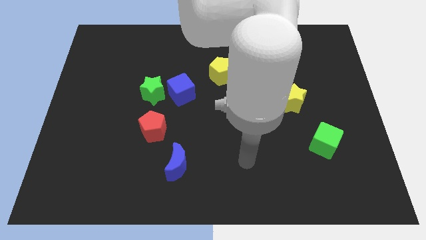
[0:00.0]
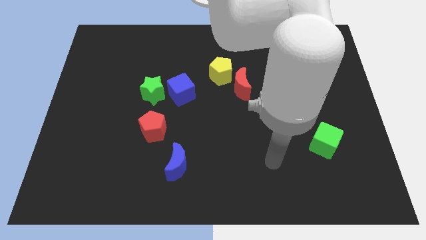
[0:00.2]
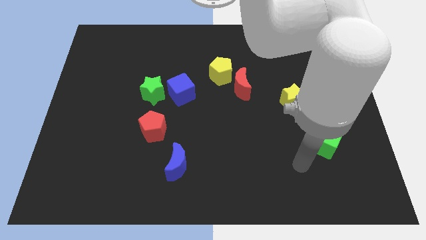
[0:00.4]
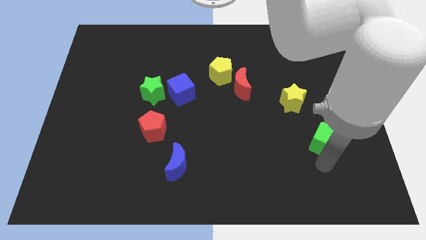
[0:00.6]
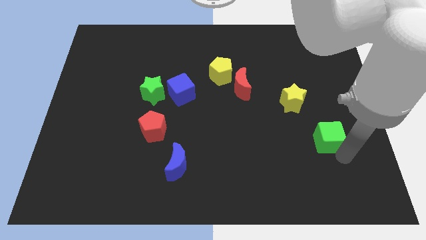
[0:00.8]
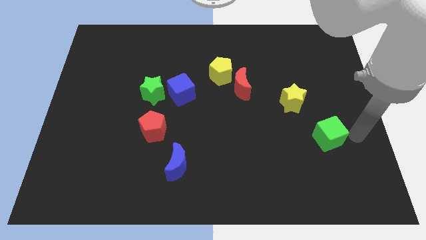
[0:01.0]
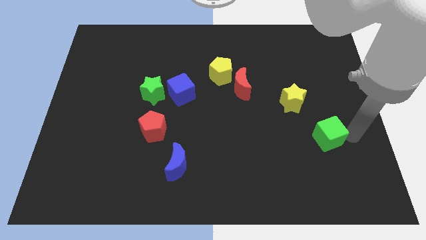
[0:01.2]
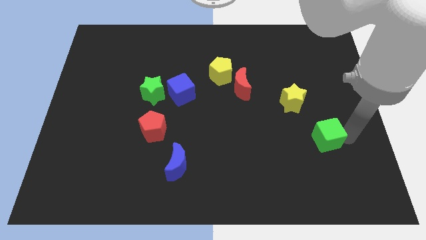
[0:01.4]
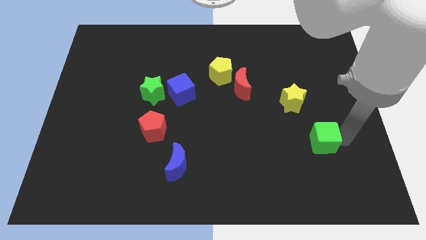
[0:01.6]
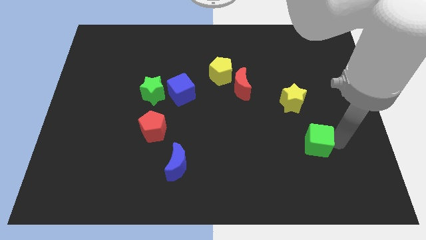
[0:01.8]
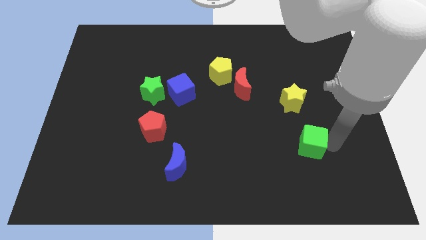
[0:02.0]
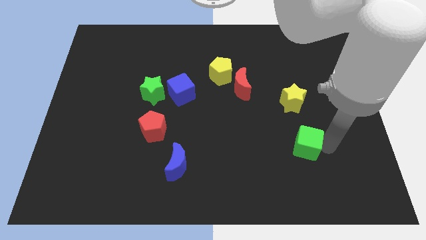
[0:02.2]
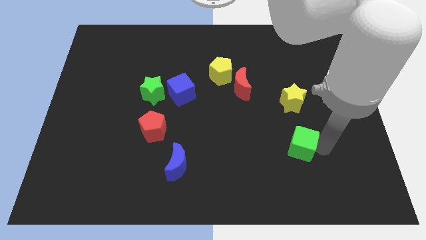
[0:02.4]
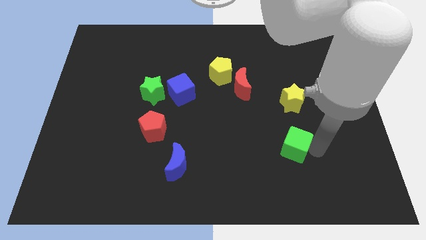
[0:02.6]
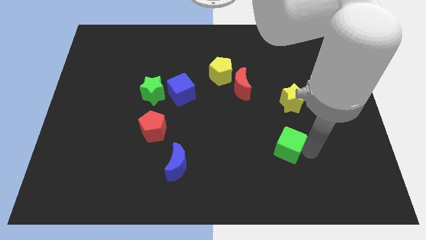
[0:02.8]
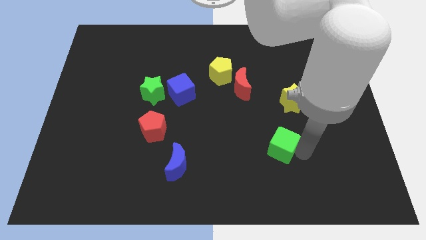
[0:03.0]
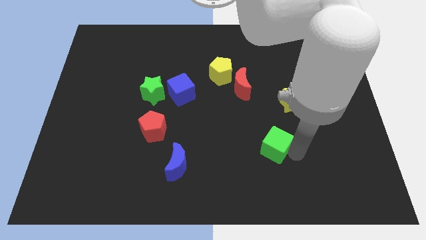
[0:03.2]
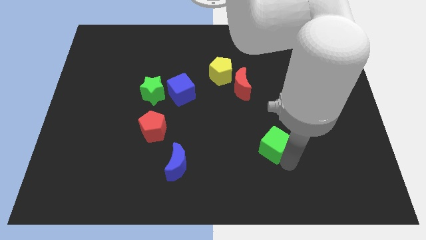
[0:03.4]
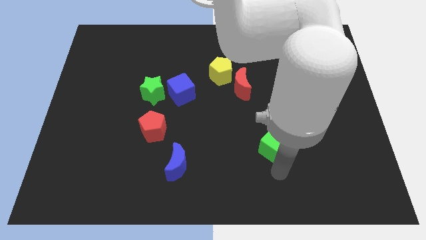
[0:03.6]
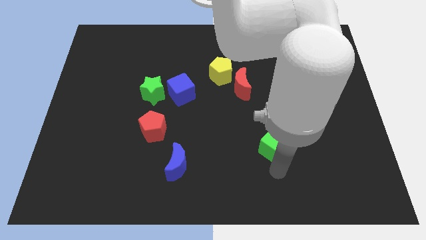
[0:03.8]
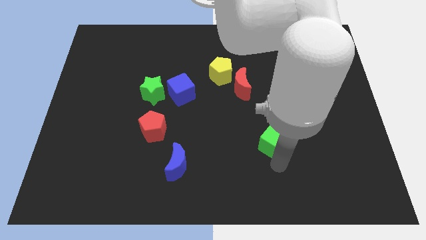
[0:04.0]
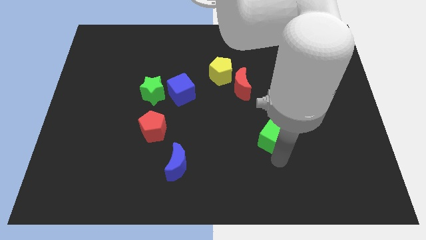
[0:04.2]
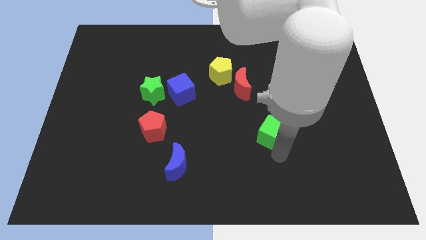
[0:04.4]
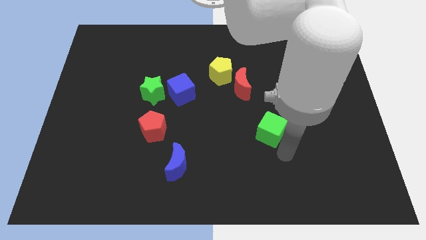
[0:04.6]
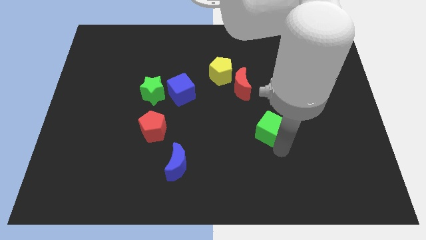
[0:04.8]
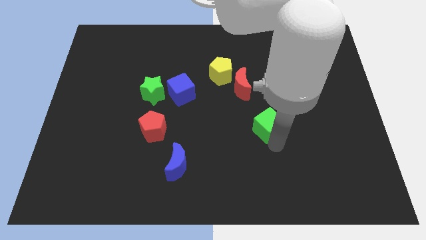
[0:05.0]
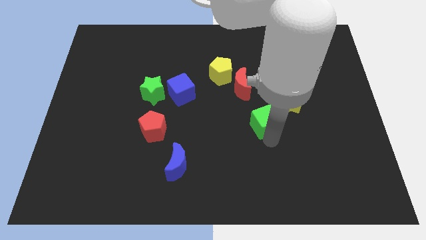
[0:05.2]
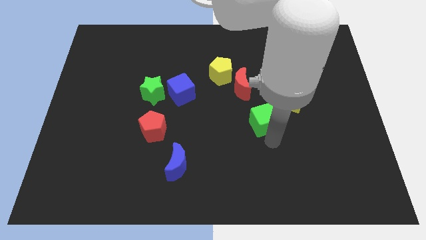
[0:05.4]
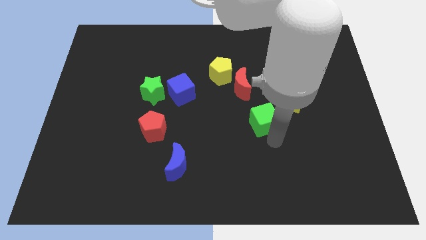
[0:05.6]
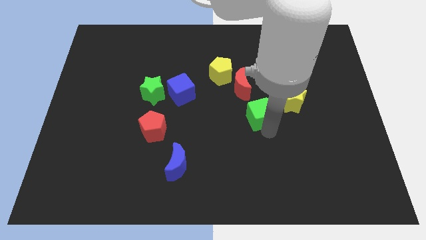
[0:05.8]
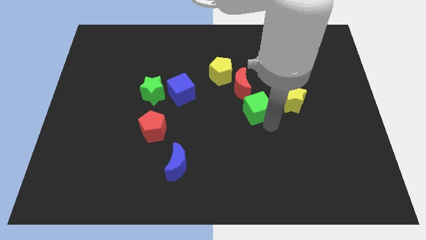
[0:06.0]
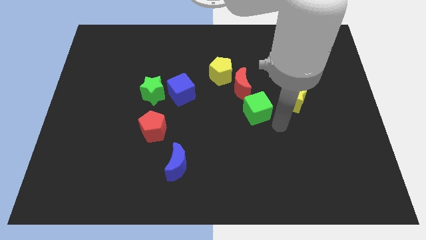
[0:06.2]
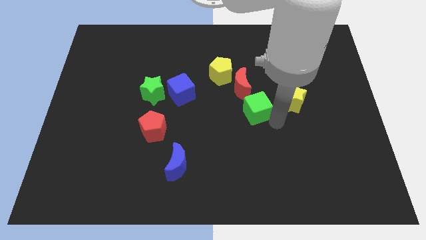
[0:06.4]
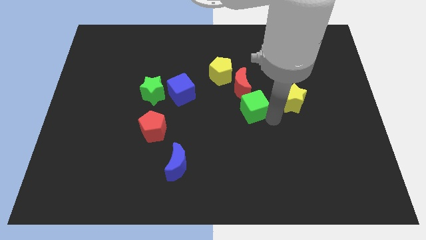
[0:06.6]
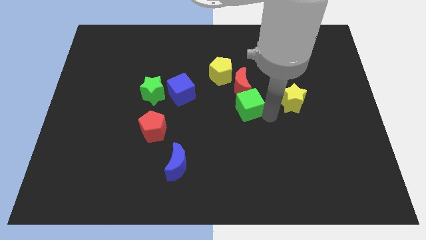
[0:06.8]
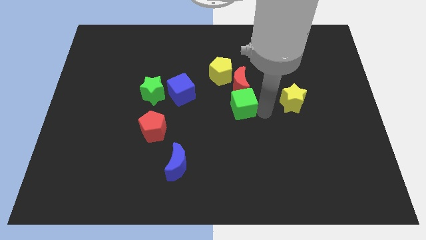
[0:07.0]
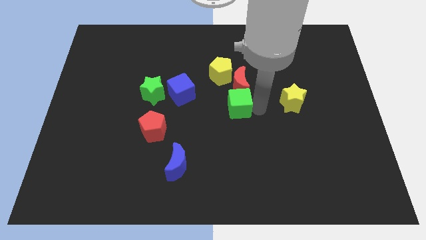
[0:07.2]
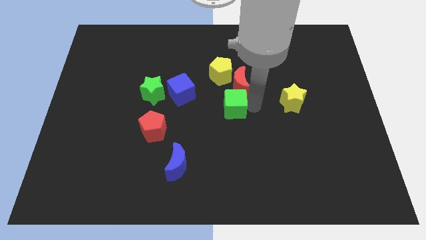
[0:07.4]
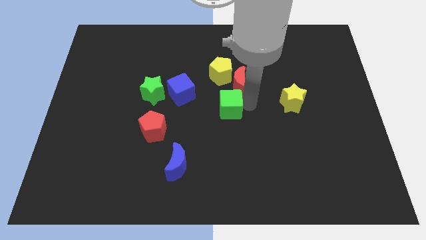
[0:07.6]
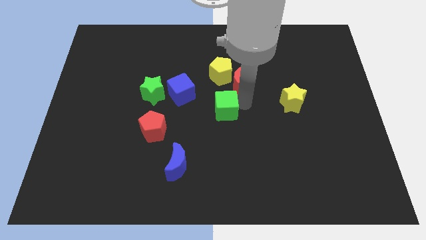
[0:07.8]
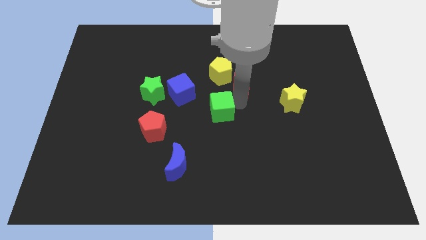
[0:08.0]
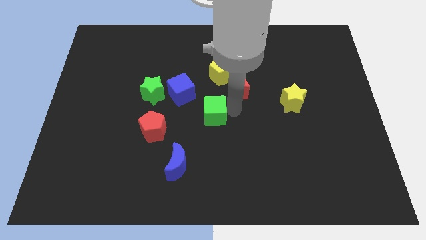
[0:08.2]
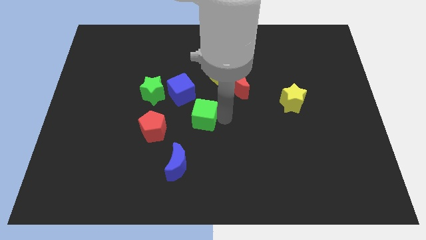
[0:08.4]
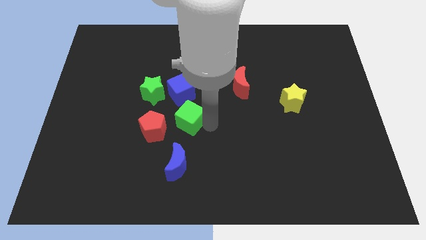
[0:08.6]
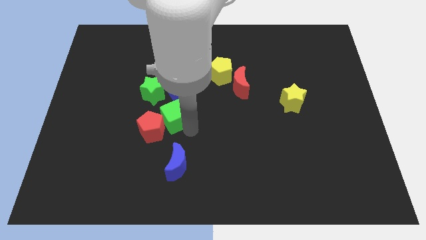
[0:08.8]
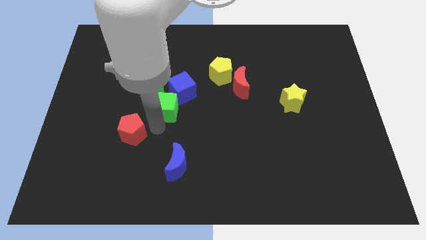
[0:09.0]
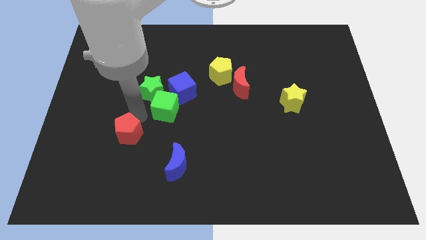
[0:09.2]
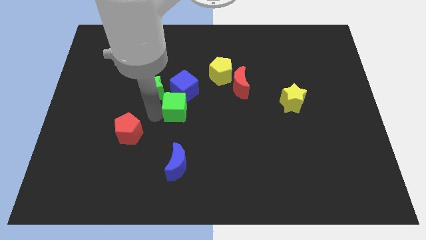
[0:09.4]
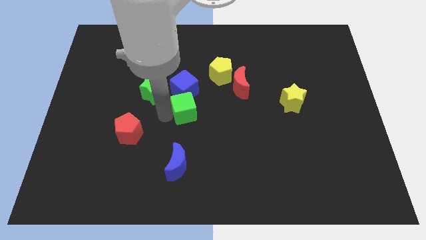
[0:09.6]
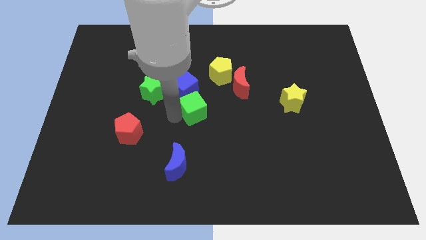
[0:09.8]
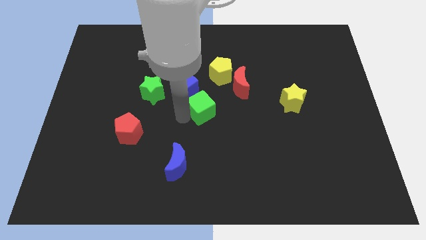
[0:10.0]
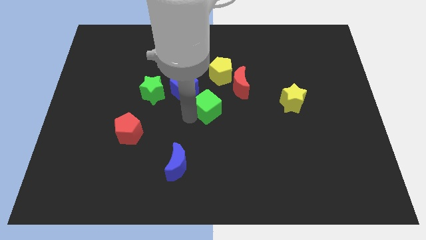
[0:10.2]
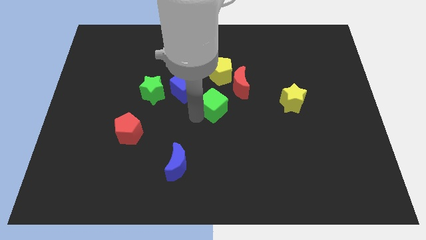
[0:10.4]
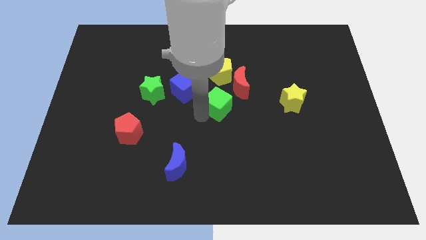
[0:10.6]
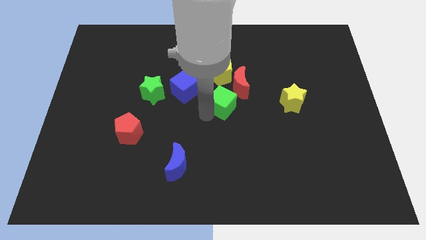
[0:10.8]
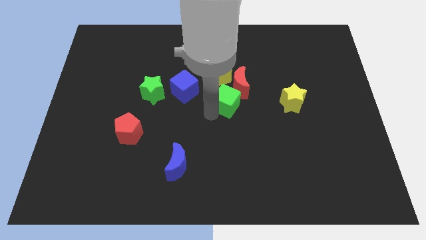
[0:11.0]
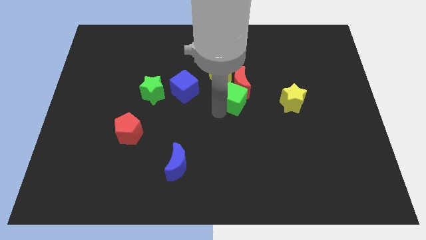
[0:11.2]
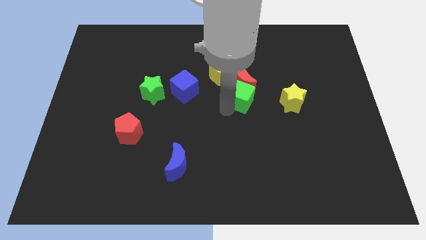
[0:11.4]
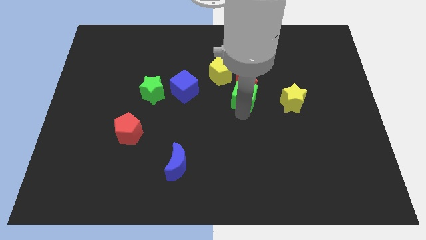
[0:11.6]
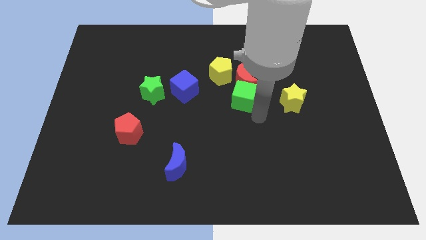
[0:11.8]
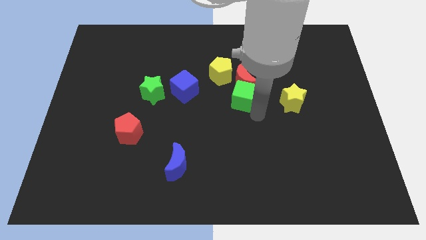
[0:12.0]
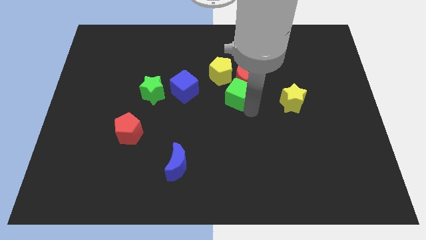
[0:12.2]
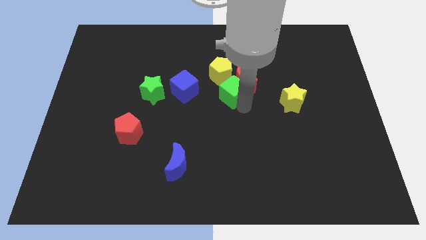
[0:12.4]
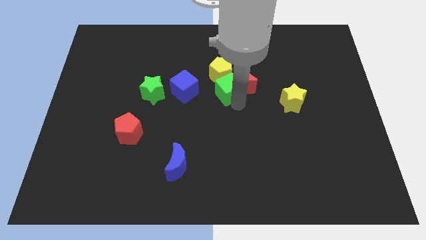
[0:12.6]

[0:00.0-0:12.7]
put the green cube close to the yellow pentagon

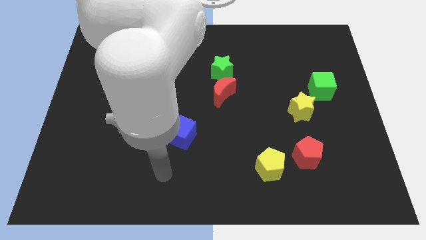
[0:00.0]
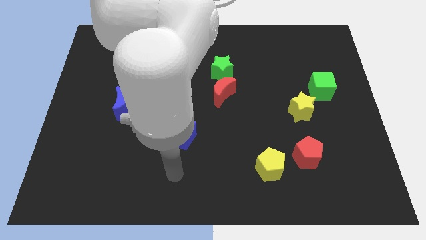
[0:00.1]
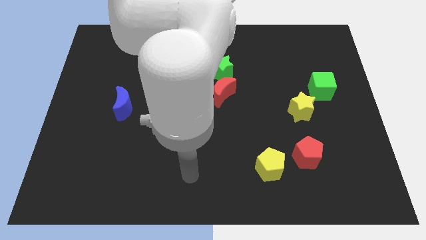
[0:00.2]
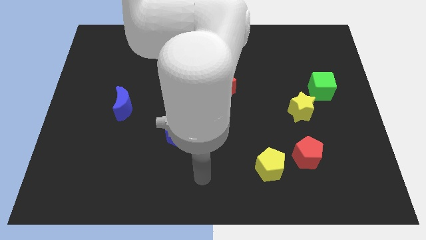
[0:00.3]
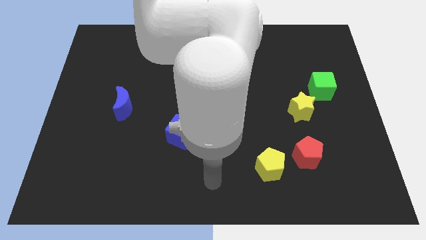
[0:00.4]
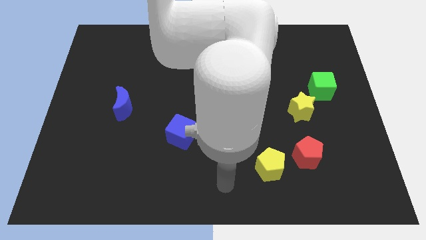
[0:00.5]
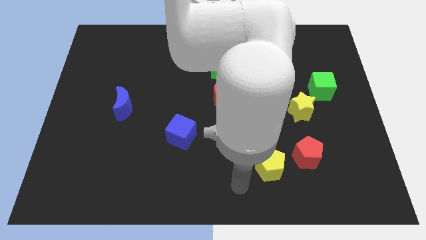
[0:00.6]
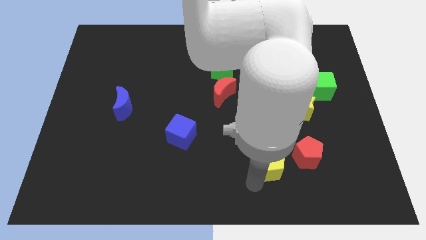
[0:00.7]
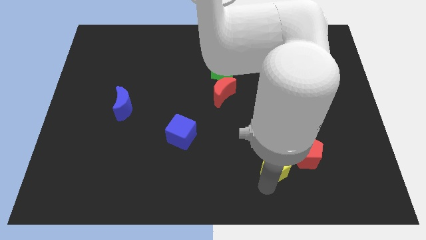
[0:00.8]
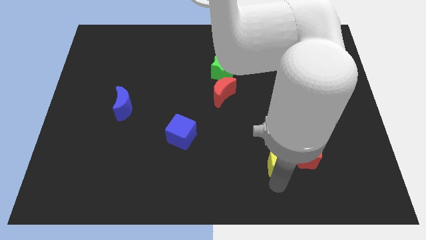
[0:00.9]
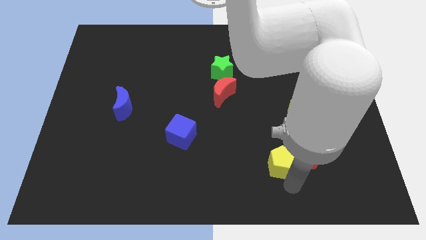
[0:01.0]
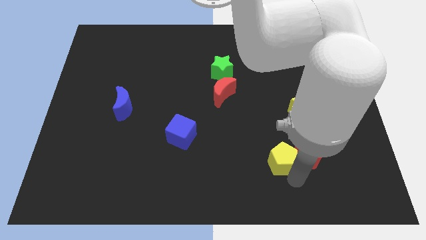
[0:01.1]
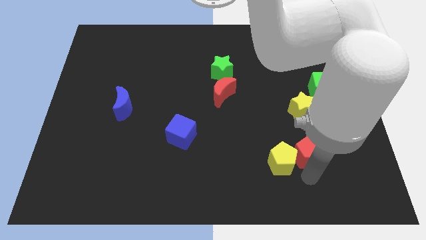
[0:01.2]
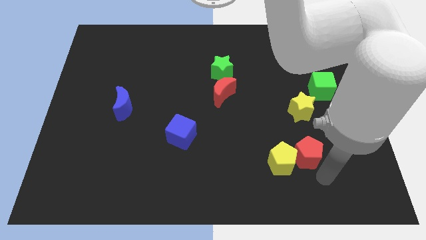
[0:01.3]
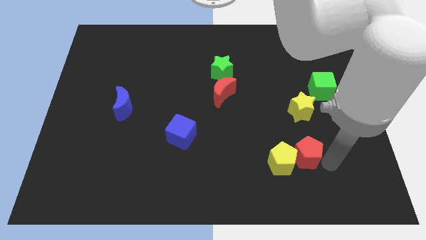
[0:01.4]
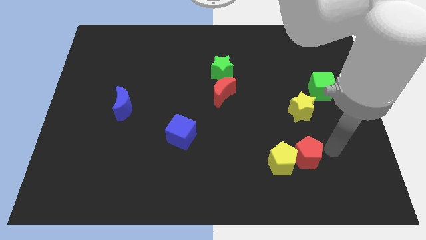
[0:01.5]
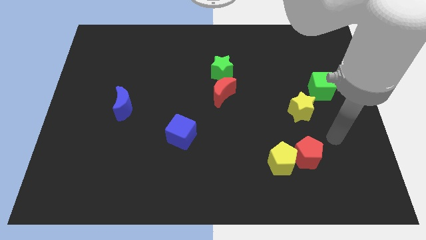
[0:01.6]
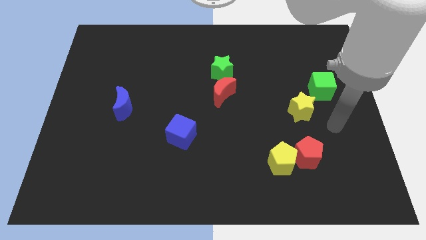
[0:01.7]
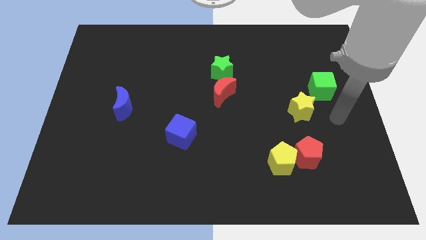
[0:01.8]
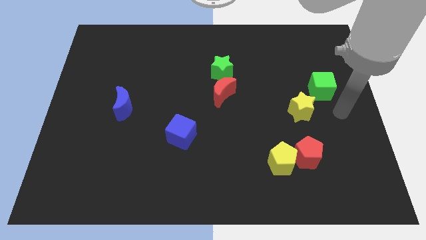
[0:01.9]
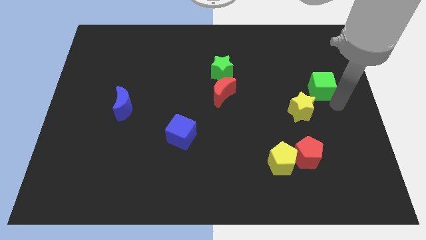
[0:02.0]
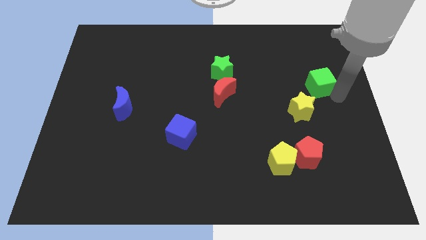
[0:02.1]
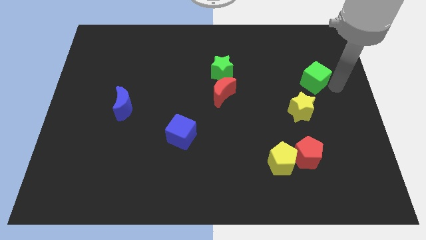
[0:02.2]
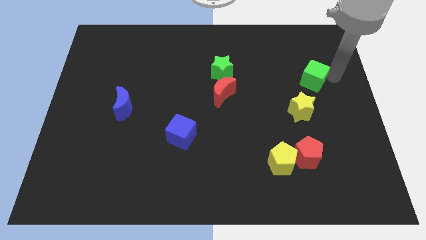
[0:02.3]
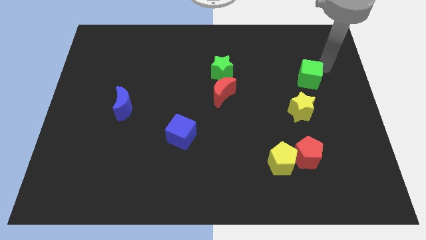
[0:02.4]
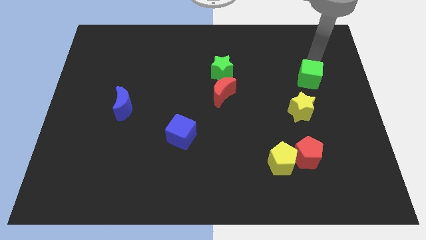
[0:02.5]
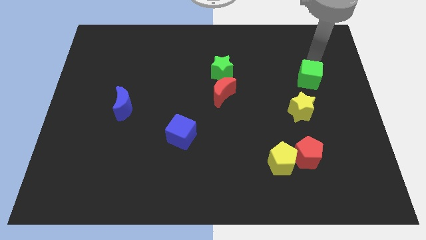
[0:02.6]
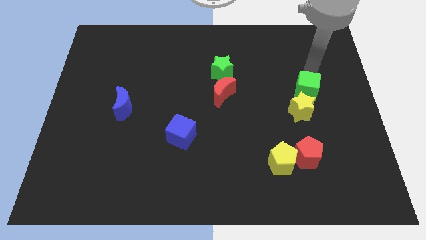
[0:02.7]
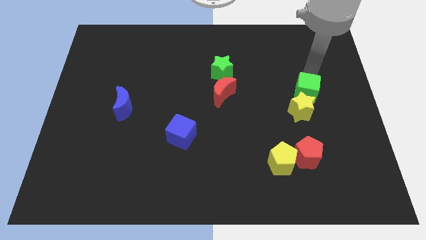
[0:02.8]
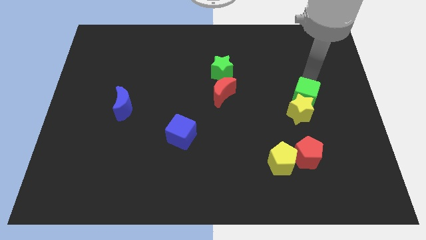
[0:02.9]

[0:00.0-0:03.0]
put the green cube next to the yellow star
